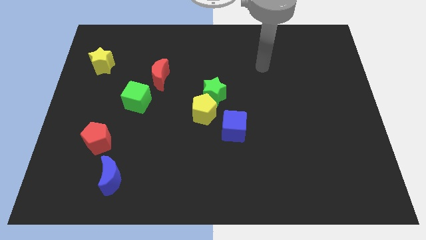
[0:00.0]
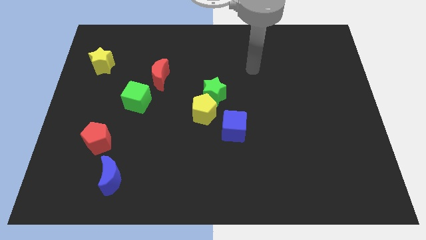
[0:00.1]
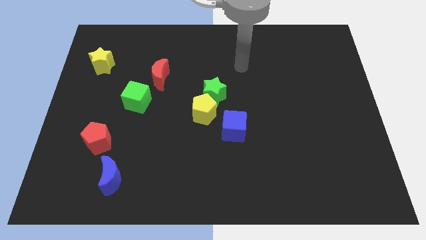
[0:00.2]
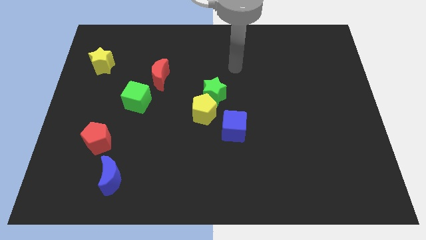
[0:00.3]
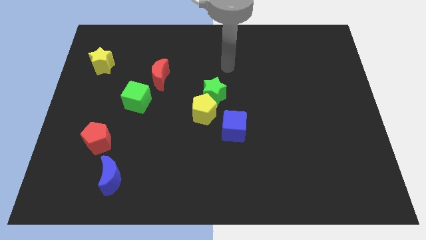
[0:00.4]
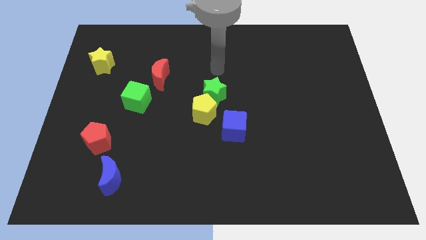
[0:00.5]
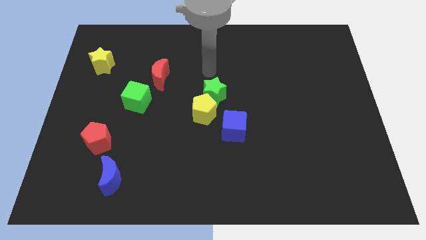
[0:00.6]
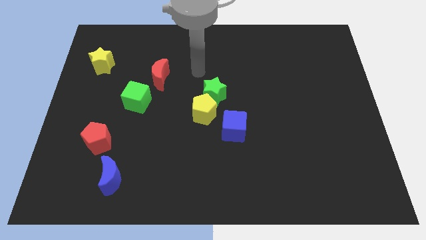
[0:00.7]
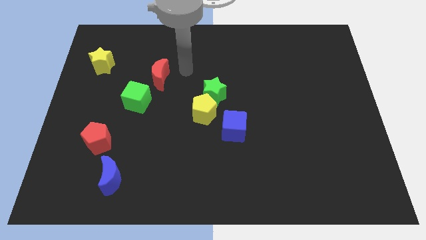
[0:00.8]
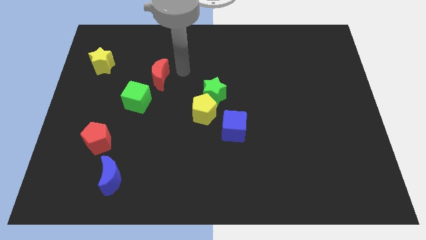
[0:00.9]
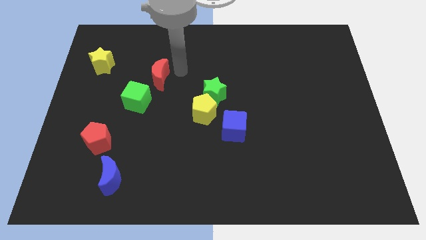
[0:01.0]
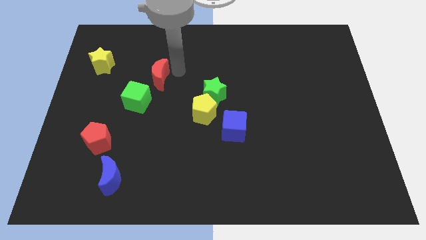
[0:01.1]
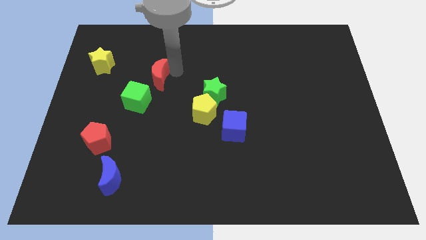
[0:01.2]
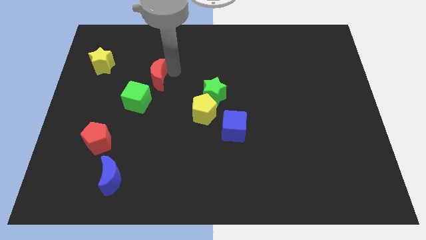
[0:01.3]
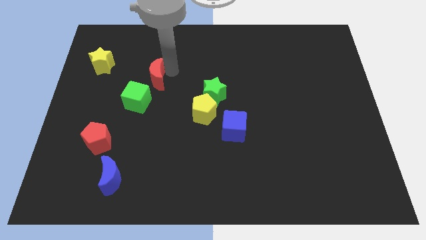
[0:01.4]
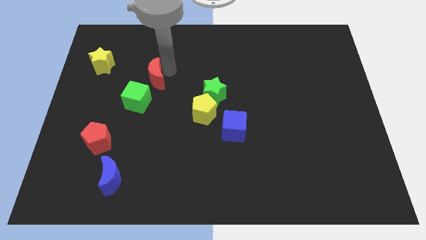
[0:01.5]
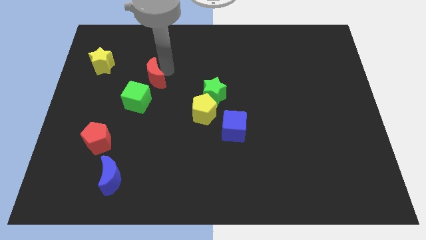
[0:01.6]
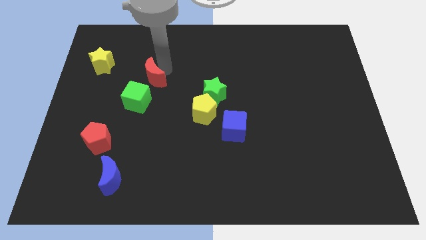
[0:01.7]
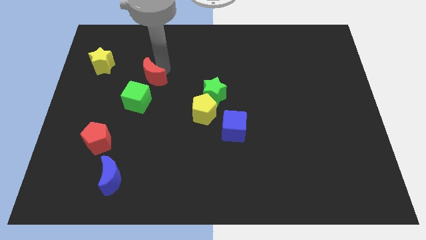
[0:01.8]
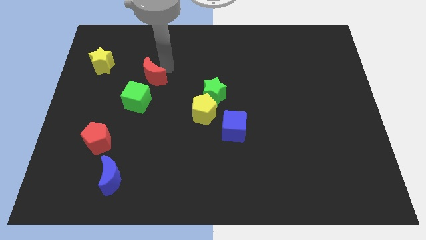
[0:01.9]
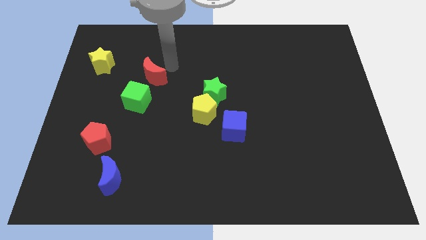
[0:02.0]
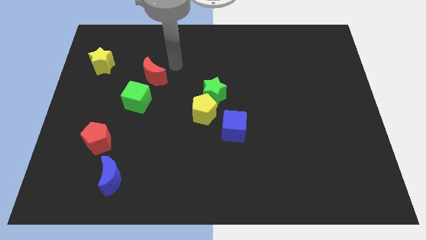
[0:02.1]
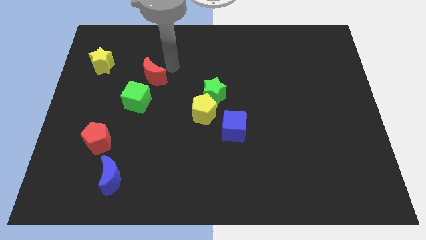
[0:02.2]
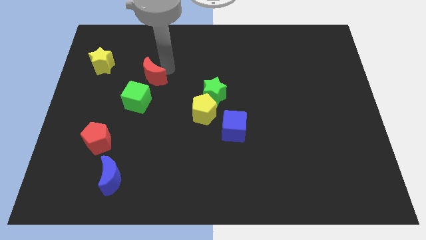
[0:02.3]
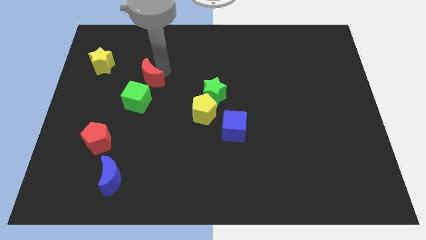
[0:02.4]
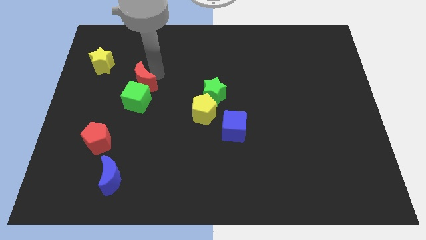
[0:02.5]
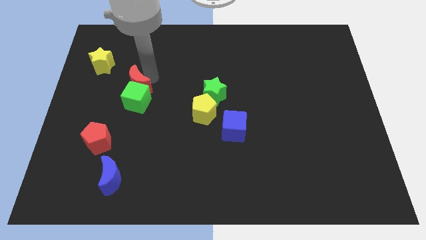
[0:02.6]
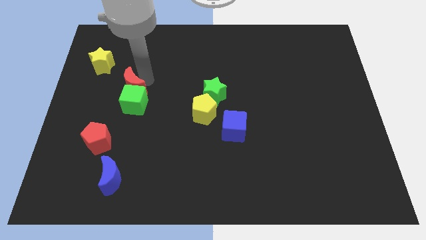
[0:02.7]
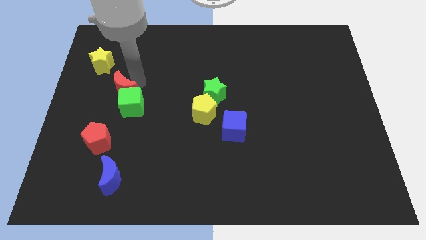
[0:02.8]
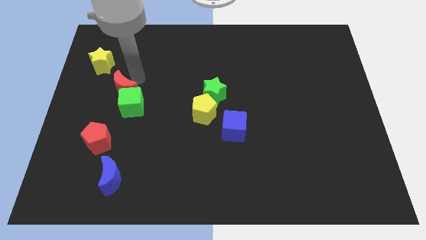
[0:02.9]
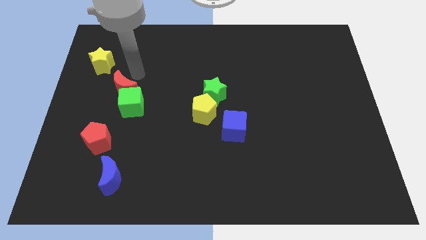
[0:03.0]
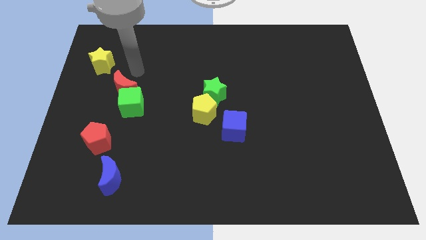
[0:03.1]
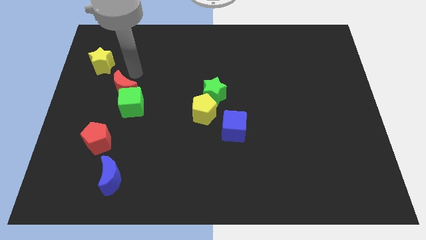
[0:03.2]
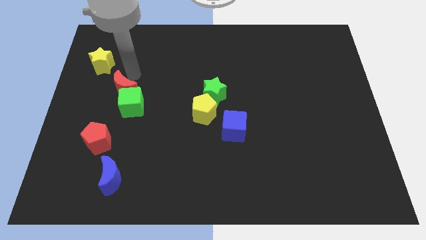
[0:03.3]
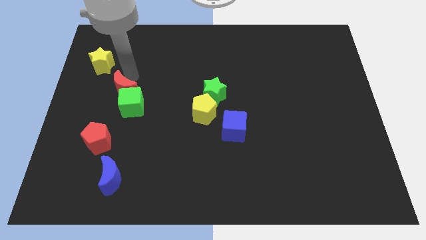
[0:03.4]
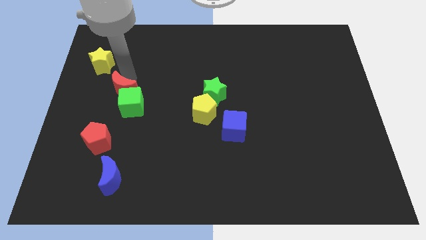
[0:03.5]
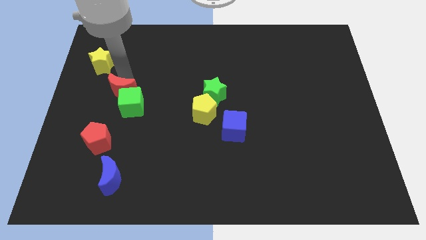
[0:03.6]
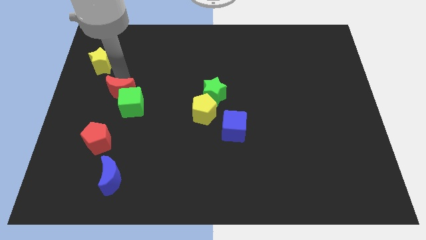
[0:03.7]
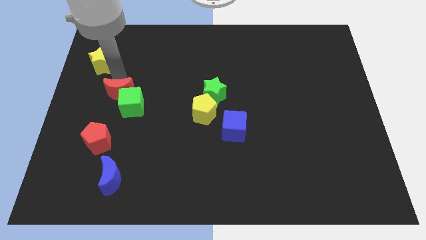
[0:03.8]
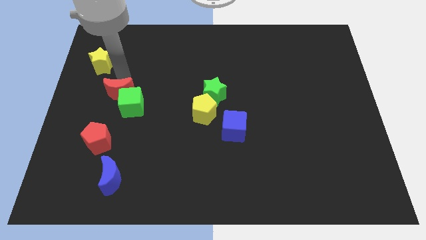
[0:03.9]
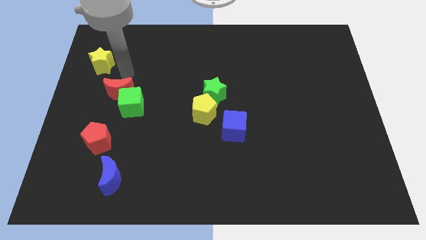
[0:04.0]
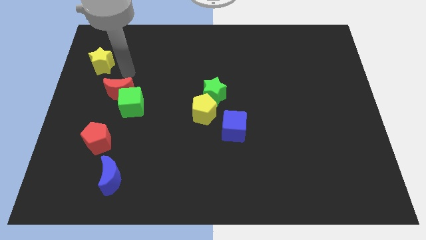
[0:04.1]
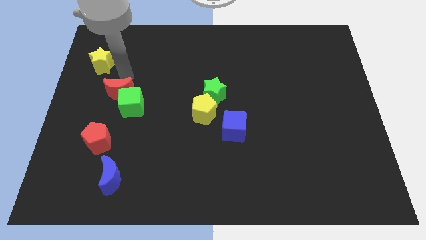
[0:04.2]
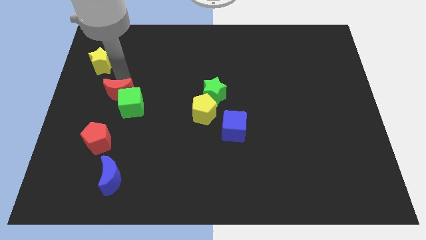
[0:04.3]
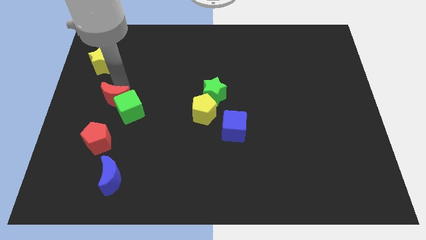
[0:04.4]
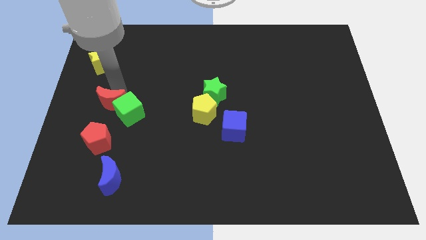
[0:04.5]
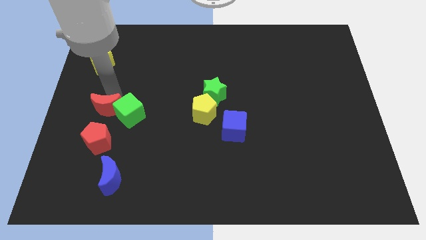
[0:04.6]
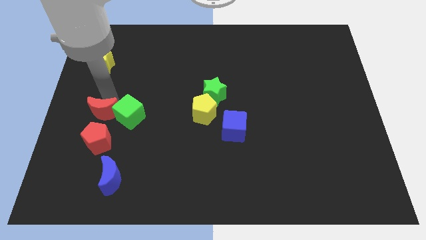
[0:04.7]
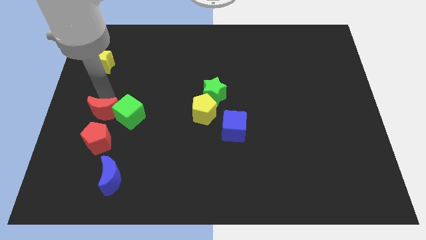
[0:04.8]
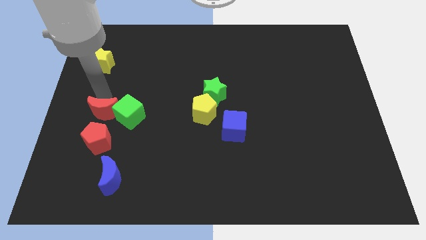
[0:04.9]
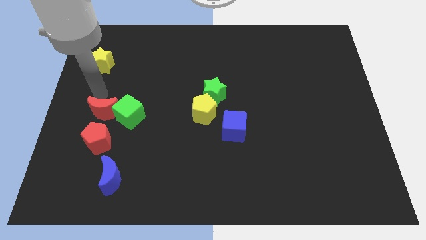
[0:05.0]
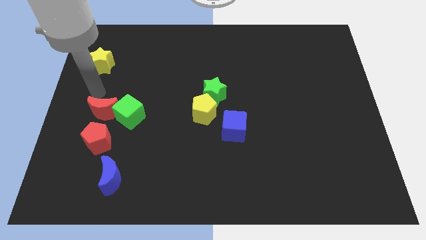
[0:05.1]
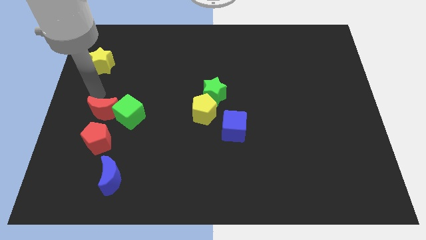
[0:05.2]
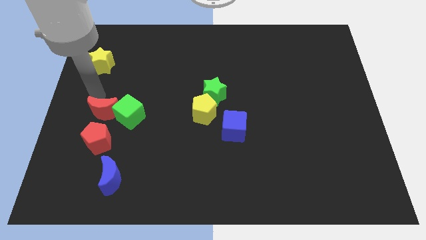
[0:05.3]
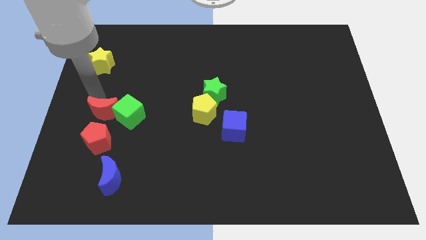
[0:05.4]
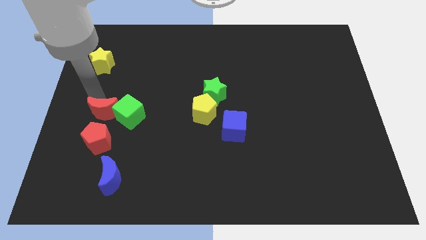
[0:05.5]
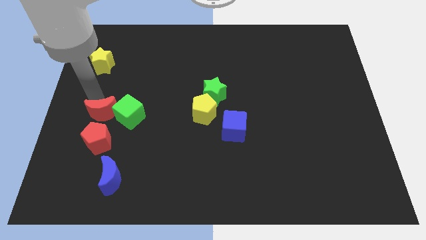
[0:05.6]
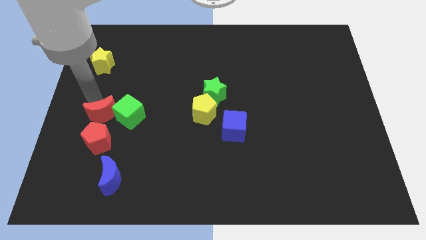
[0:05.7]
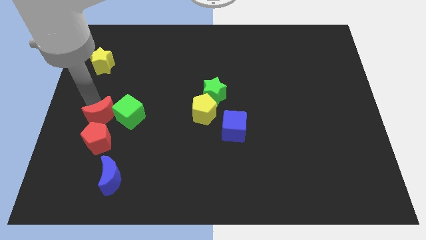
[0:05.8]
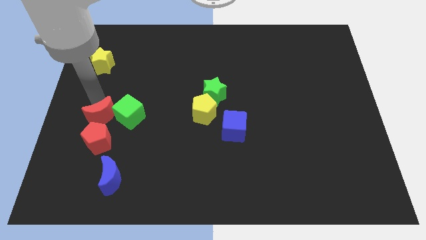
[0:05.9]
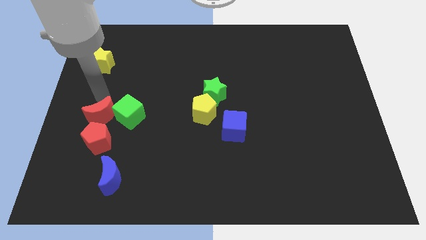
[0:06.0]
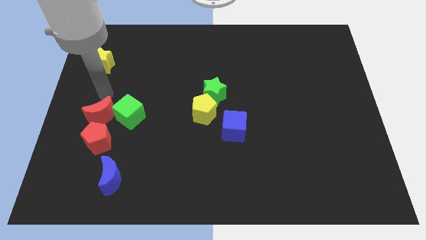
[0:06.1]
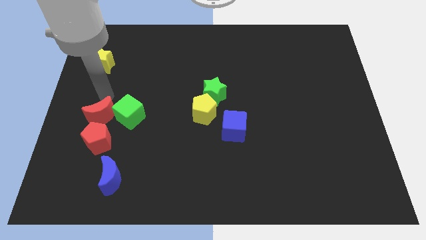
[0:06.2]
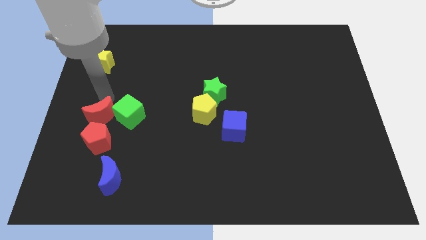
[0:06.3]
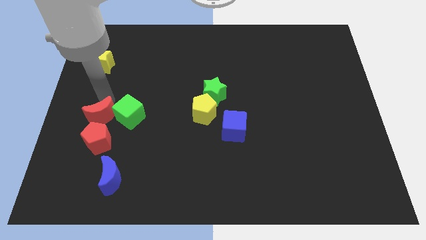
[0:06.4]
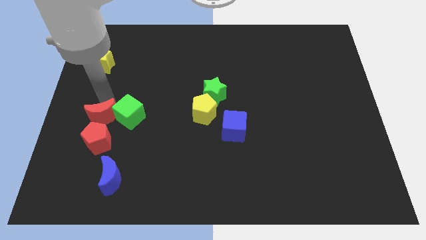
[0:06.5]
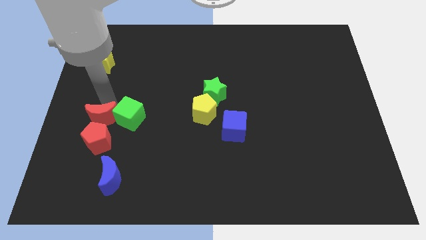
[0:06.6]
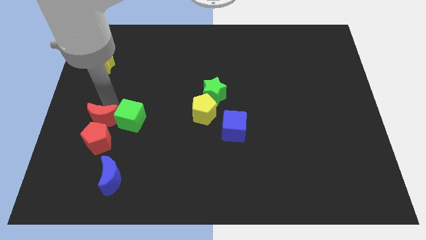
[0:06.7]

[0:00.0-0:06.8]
move the red moon close to the red pentagon
